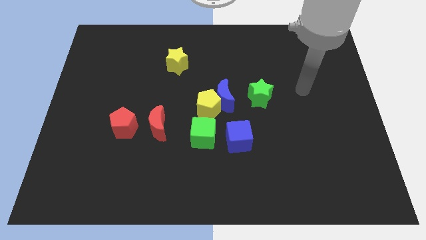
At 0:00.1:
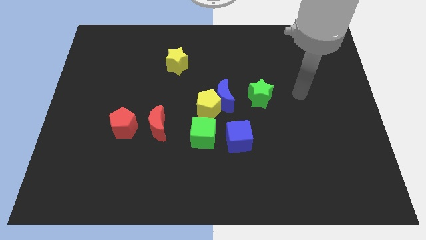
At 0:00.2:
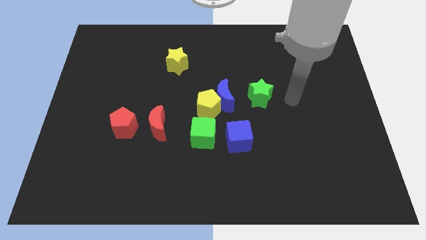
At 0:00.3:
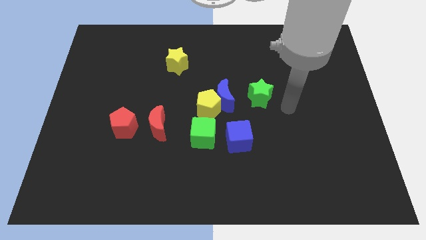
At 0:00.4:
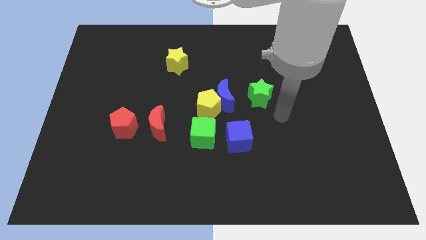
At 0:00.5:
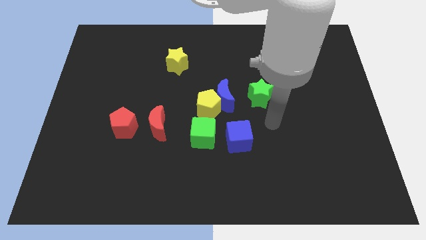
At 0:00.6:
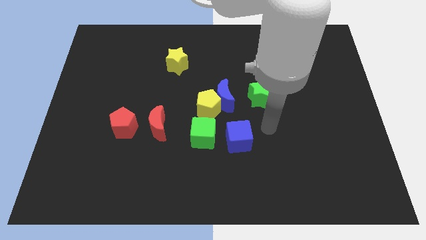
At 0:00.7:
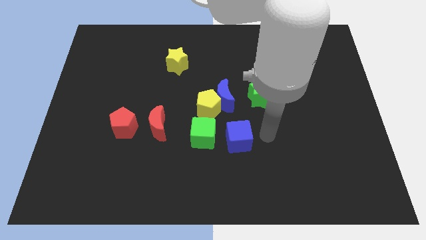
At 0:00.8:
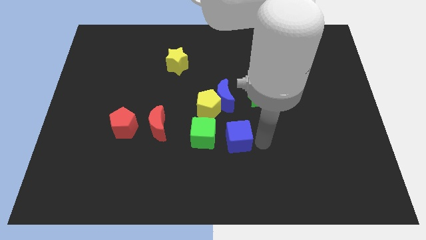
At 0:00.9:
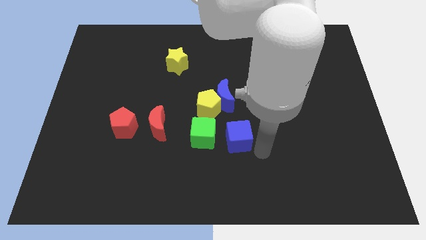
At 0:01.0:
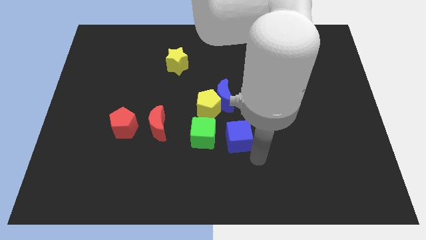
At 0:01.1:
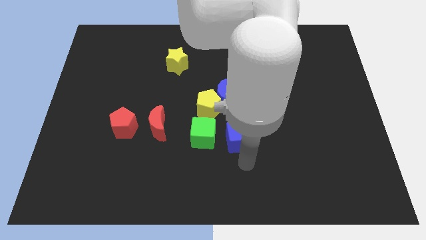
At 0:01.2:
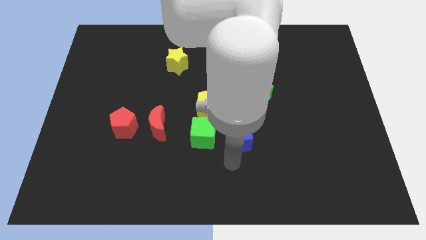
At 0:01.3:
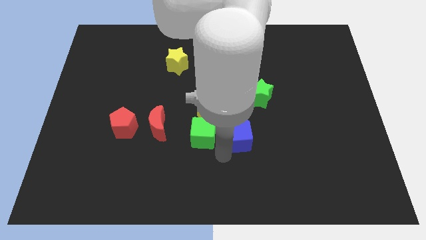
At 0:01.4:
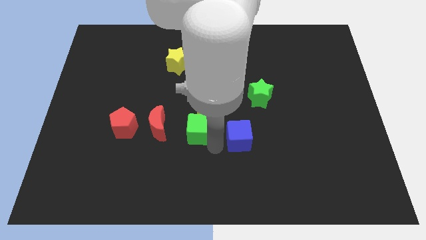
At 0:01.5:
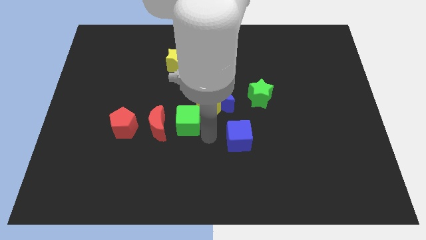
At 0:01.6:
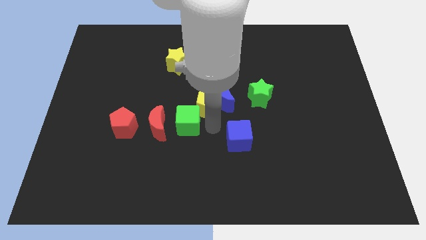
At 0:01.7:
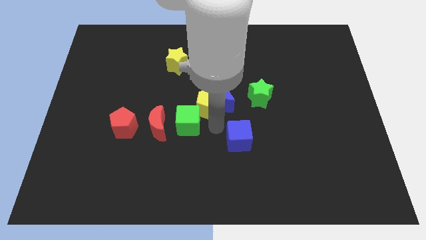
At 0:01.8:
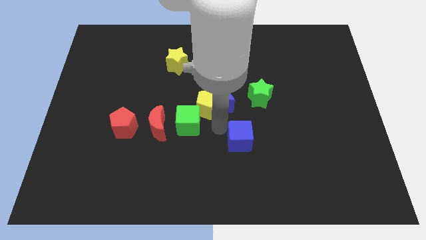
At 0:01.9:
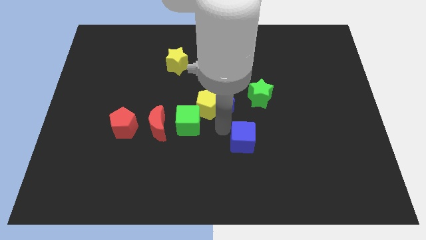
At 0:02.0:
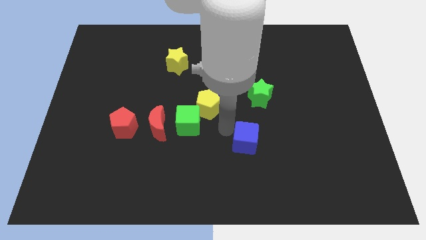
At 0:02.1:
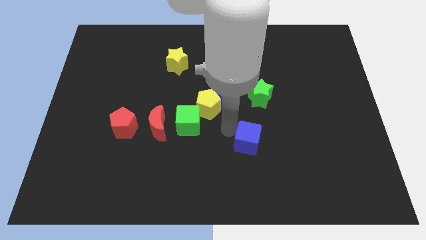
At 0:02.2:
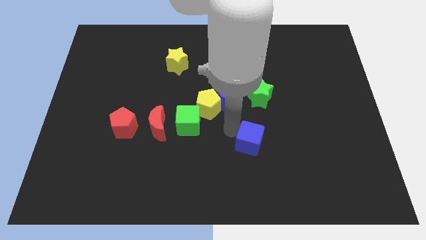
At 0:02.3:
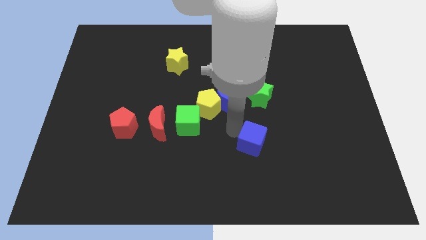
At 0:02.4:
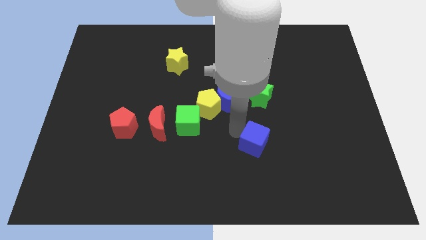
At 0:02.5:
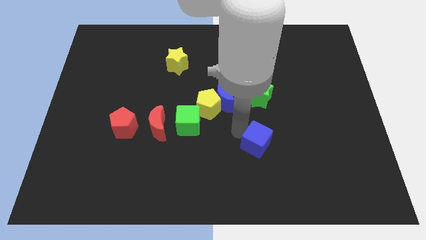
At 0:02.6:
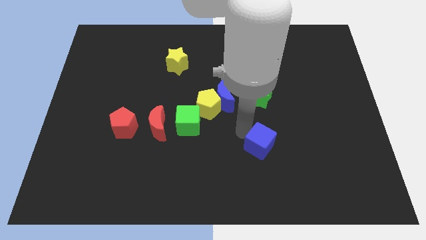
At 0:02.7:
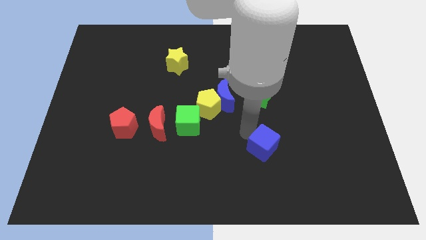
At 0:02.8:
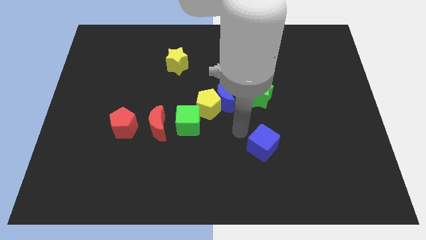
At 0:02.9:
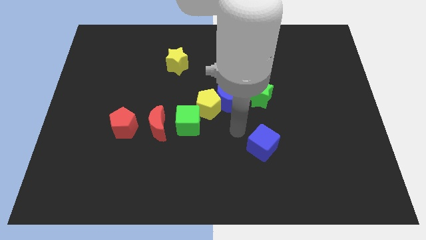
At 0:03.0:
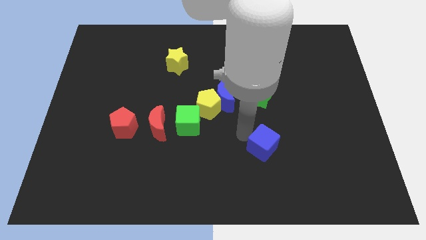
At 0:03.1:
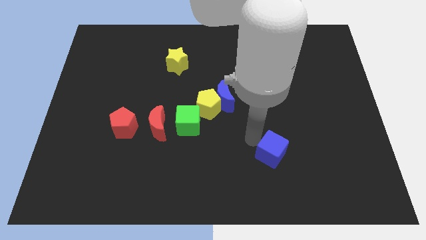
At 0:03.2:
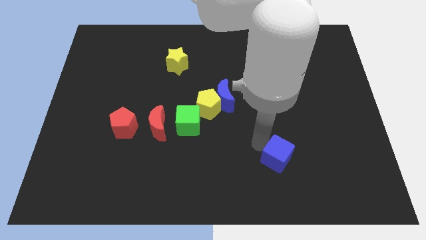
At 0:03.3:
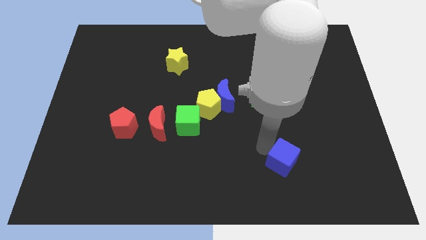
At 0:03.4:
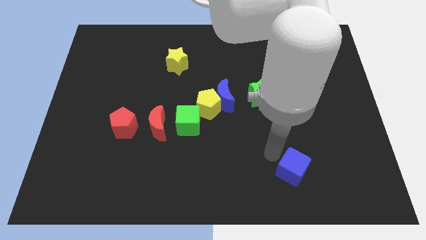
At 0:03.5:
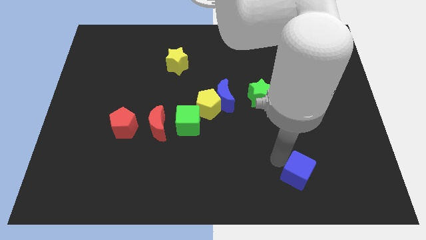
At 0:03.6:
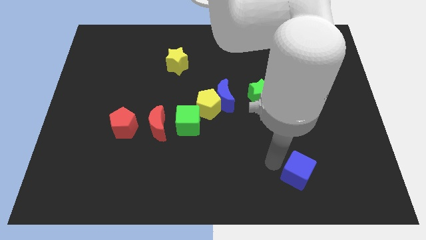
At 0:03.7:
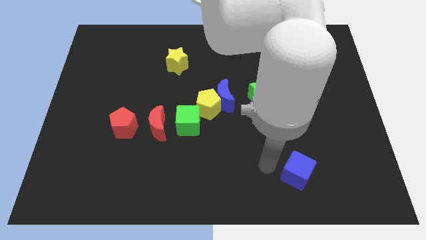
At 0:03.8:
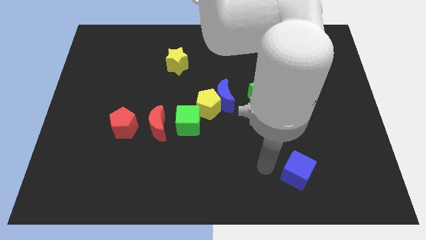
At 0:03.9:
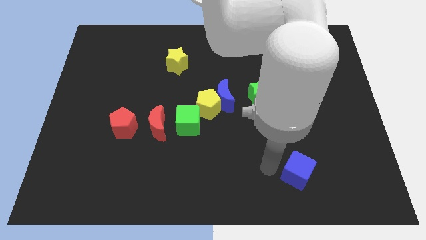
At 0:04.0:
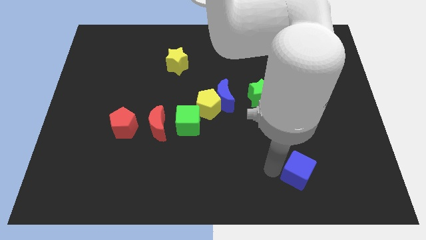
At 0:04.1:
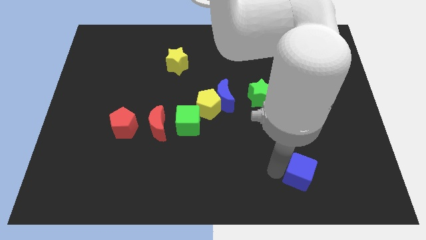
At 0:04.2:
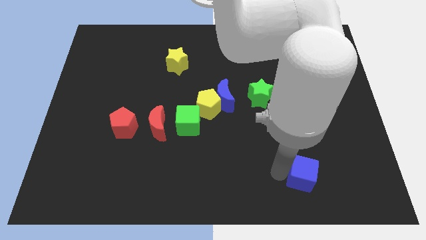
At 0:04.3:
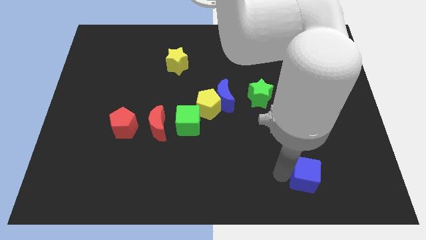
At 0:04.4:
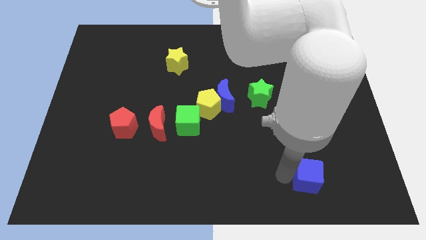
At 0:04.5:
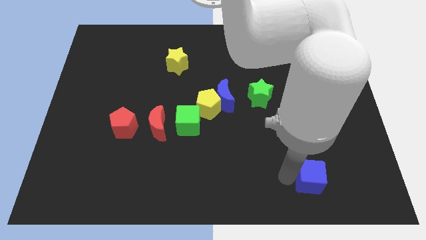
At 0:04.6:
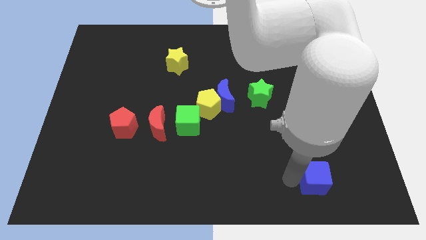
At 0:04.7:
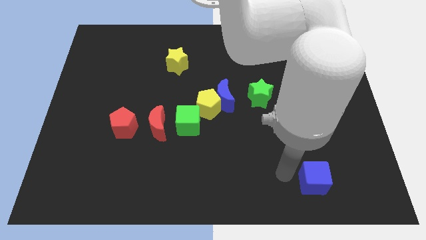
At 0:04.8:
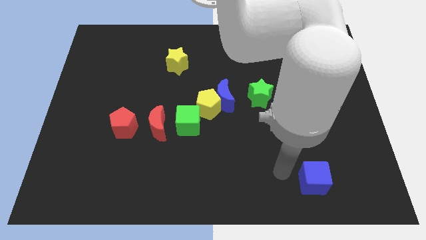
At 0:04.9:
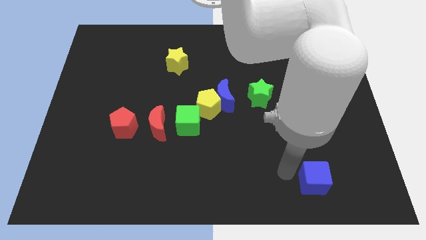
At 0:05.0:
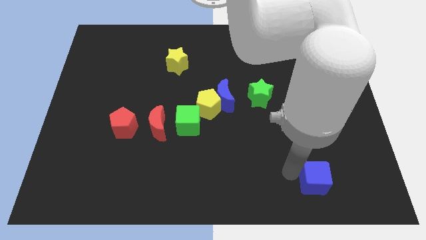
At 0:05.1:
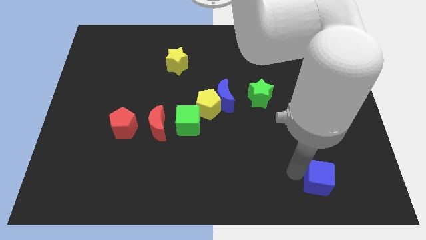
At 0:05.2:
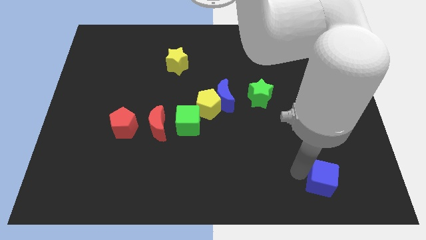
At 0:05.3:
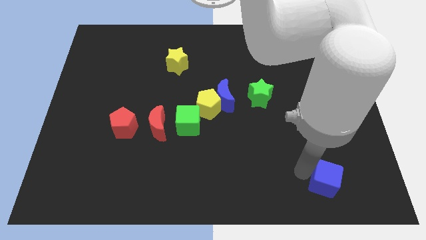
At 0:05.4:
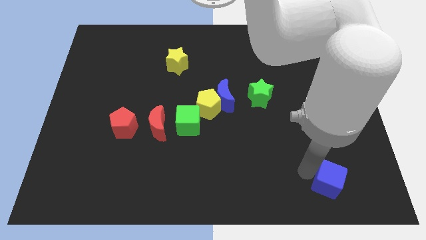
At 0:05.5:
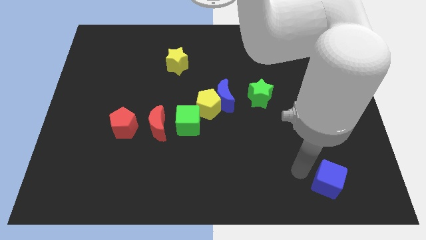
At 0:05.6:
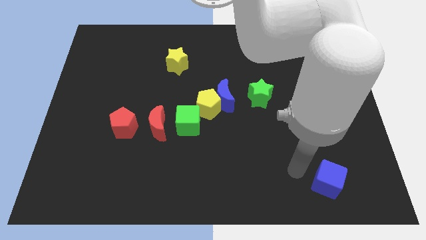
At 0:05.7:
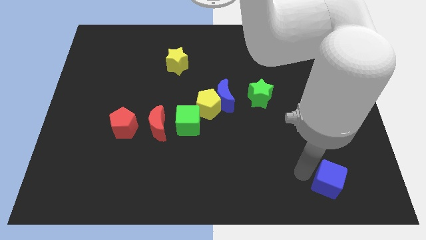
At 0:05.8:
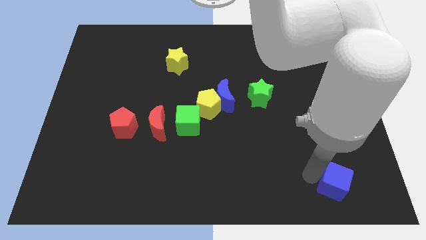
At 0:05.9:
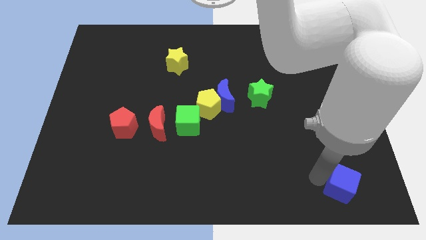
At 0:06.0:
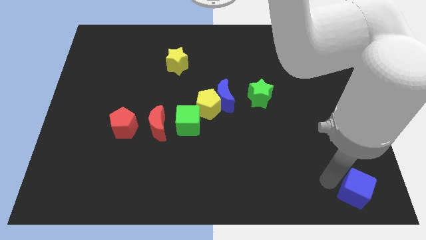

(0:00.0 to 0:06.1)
move the blue cube to the bottom right of the board
